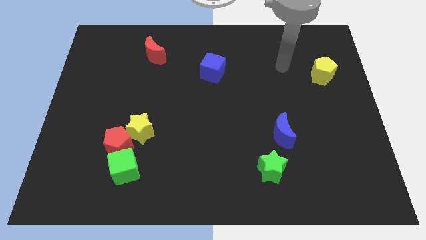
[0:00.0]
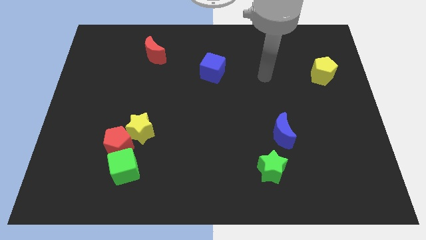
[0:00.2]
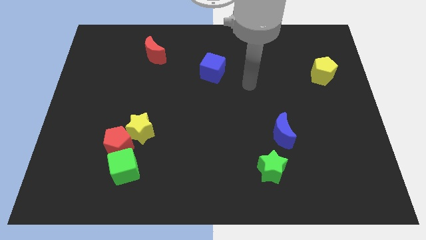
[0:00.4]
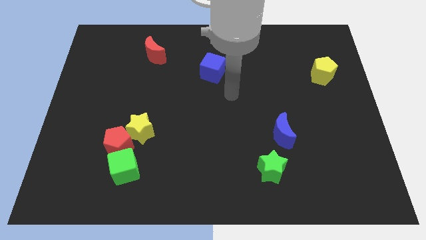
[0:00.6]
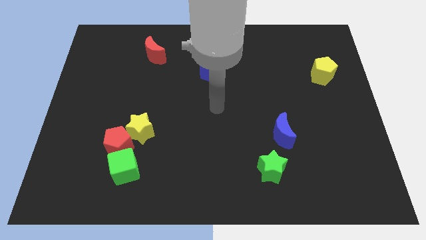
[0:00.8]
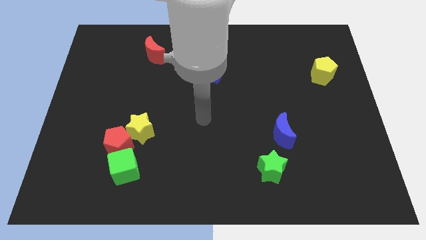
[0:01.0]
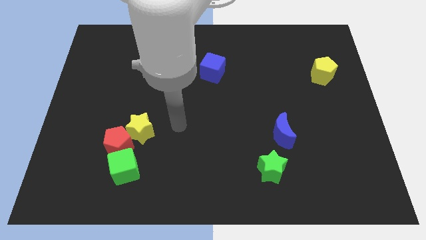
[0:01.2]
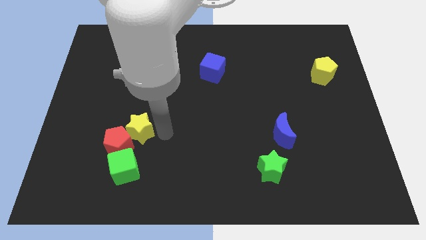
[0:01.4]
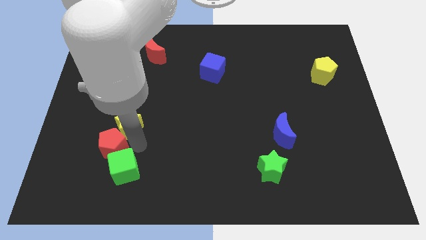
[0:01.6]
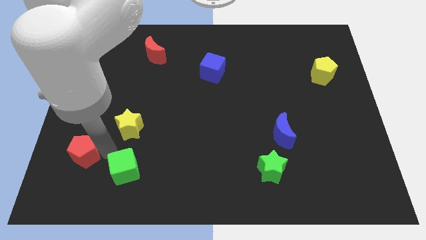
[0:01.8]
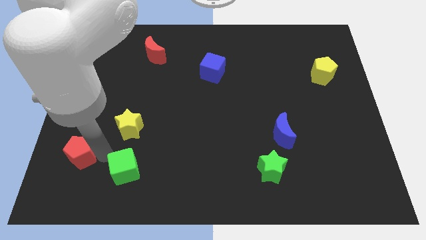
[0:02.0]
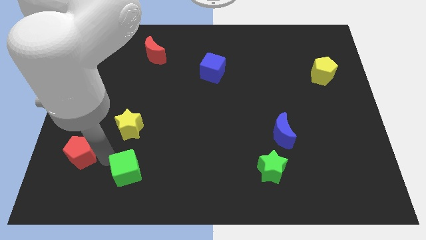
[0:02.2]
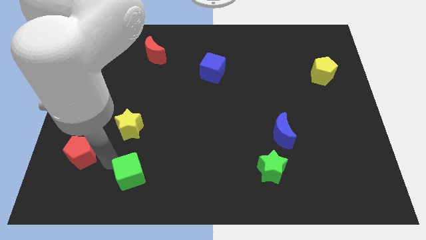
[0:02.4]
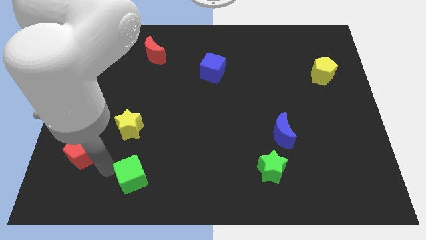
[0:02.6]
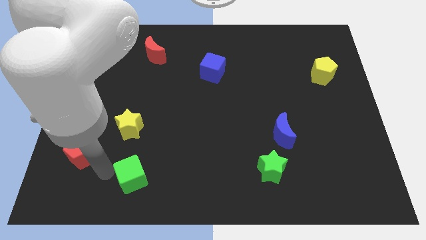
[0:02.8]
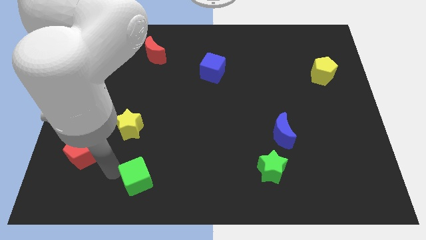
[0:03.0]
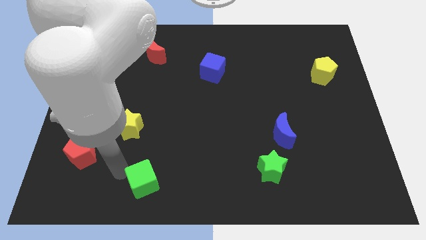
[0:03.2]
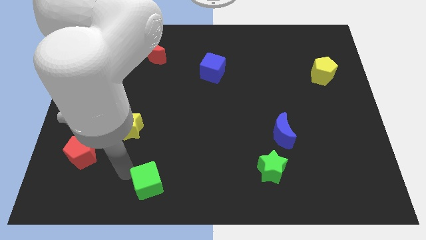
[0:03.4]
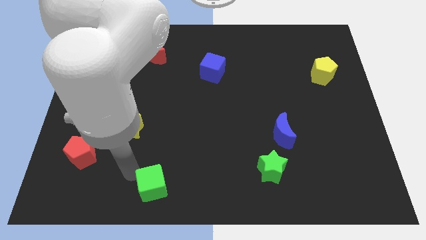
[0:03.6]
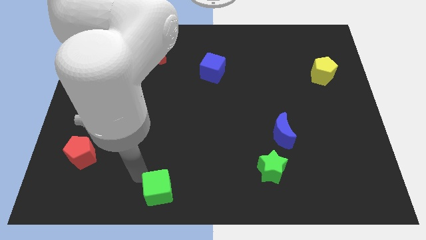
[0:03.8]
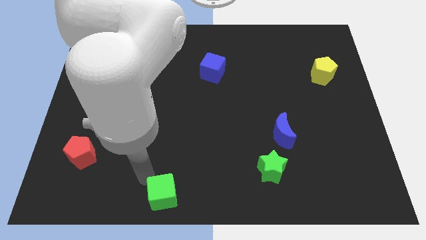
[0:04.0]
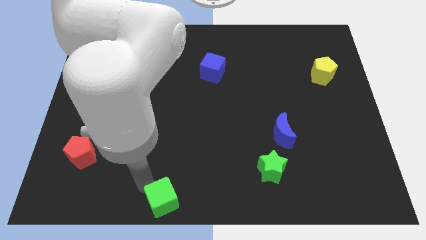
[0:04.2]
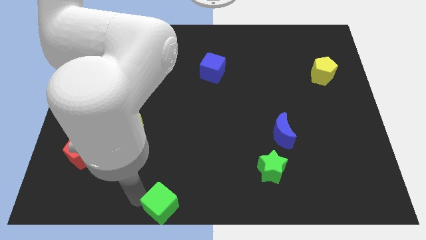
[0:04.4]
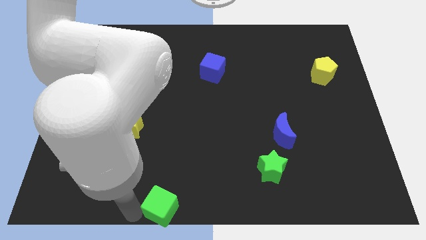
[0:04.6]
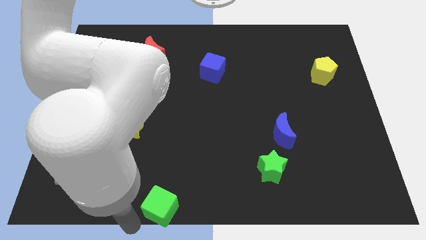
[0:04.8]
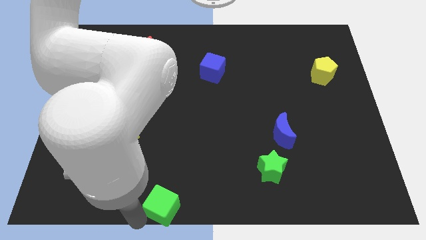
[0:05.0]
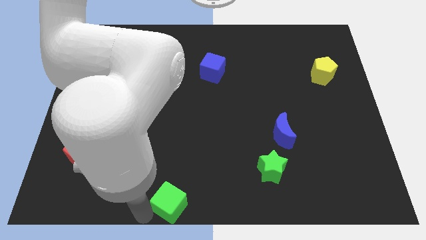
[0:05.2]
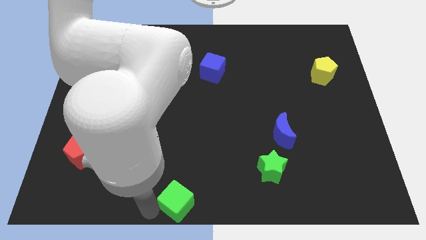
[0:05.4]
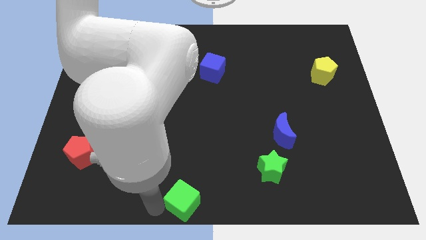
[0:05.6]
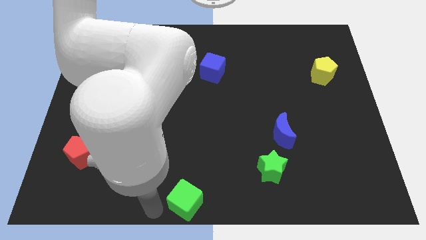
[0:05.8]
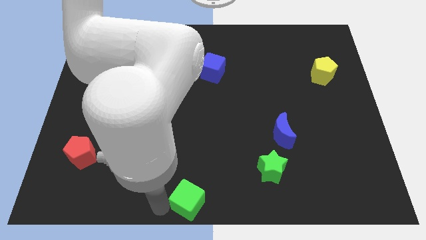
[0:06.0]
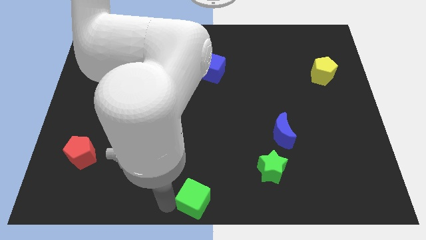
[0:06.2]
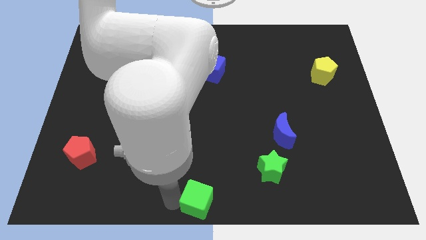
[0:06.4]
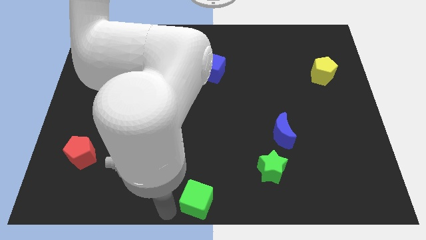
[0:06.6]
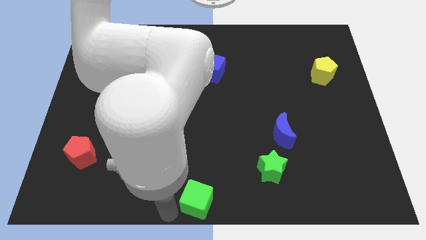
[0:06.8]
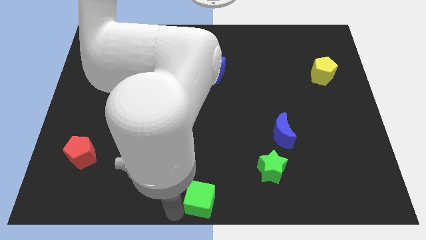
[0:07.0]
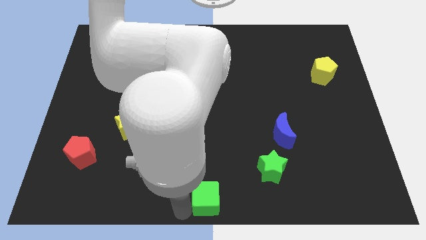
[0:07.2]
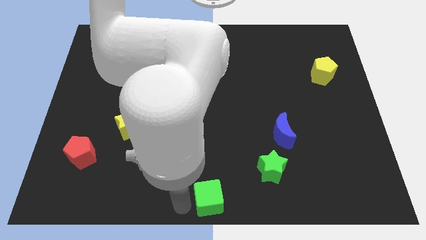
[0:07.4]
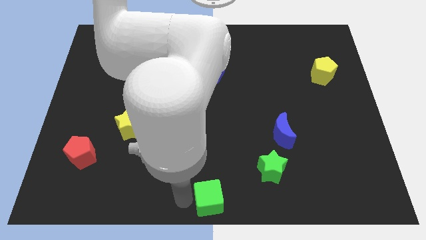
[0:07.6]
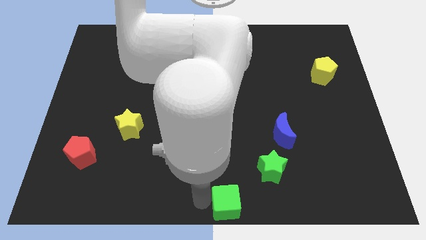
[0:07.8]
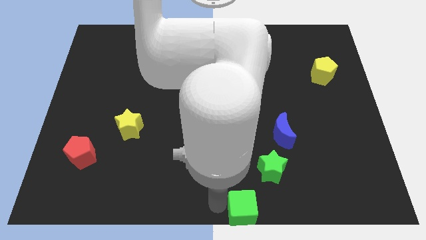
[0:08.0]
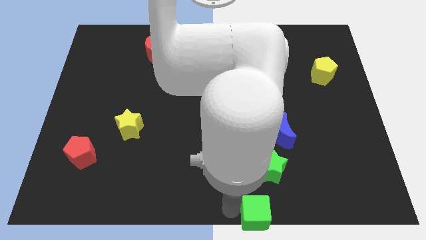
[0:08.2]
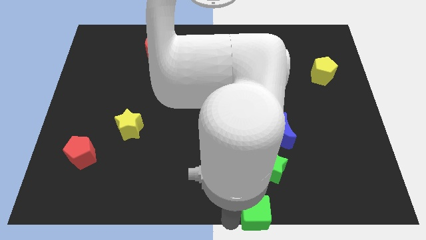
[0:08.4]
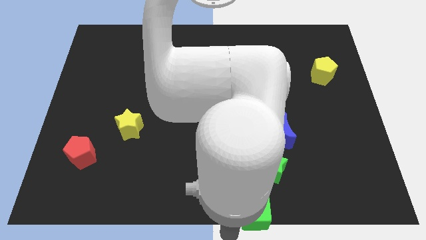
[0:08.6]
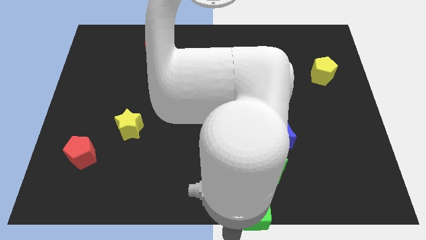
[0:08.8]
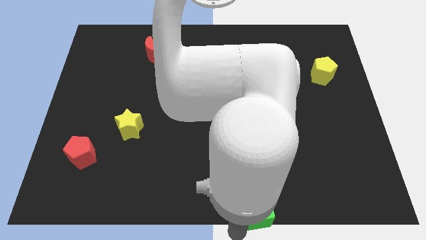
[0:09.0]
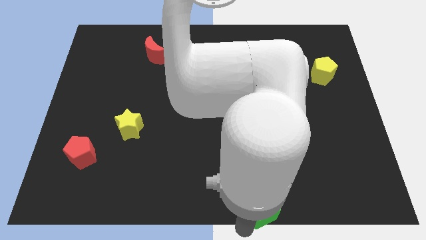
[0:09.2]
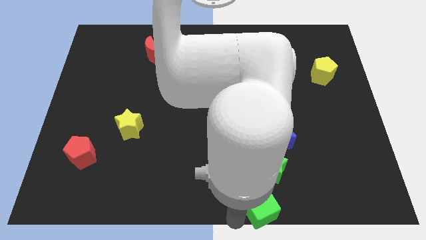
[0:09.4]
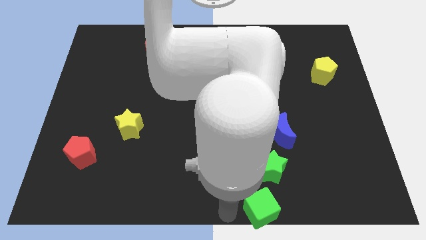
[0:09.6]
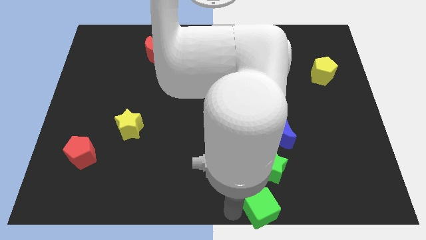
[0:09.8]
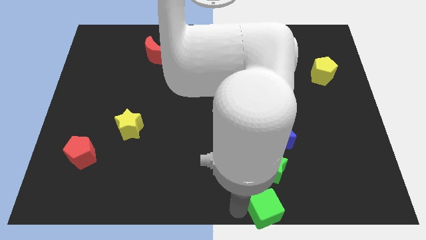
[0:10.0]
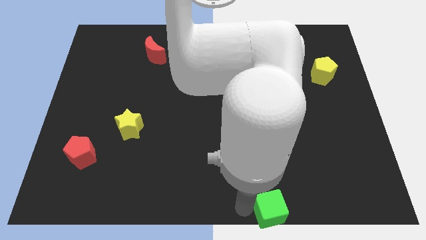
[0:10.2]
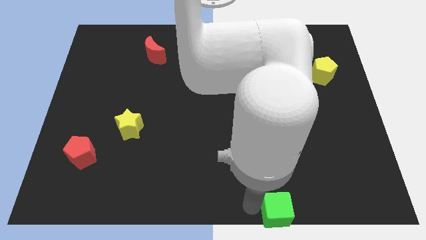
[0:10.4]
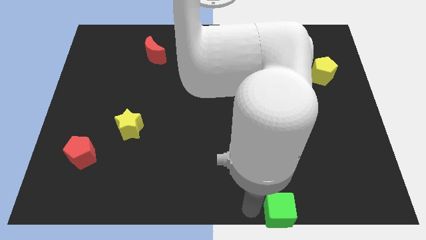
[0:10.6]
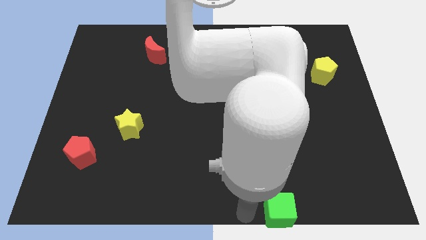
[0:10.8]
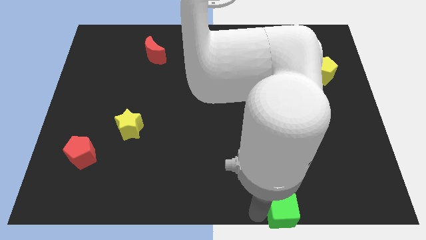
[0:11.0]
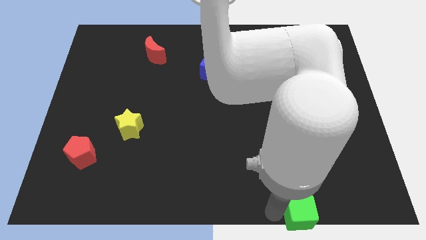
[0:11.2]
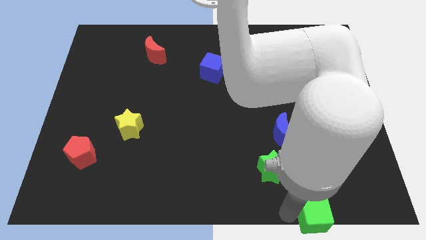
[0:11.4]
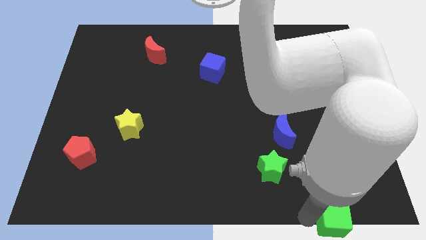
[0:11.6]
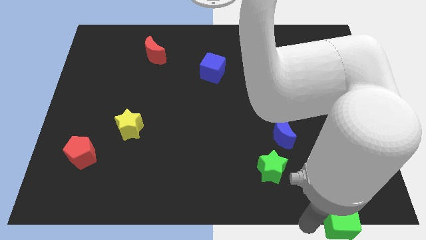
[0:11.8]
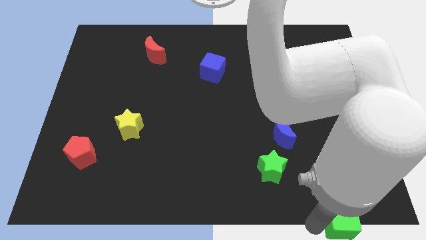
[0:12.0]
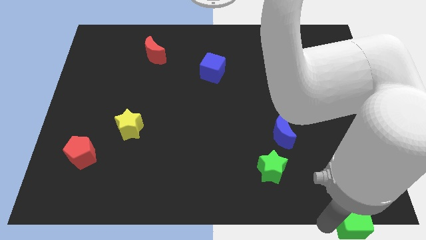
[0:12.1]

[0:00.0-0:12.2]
slide the green cube to the lower right corner

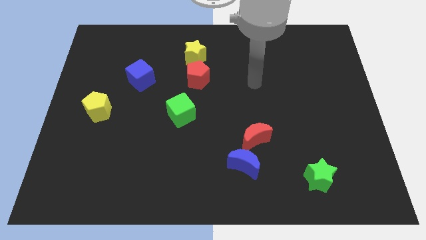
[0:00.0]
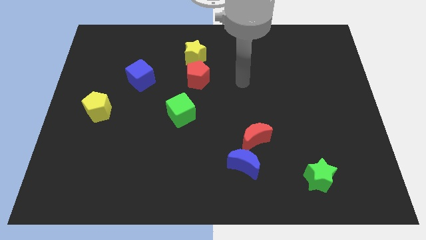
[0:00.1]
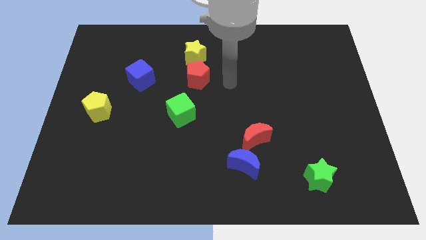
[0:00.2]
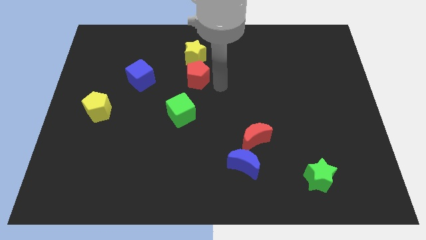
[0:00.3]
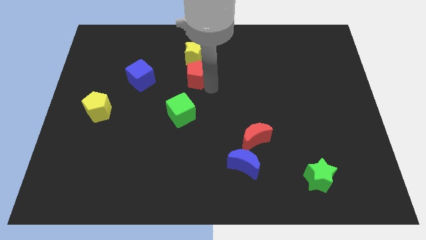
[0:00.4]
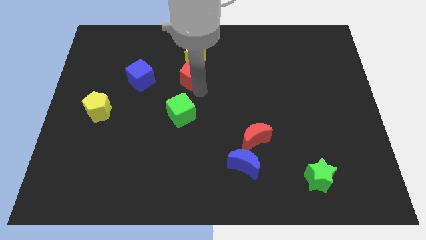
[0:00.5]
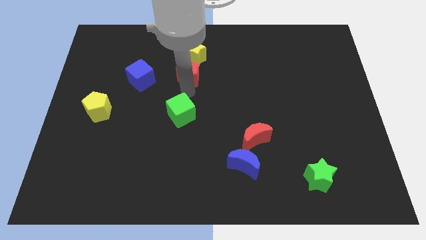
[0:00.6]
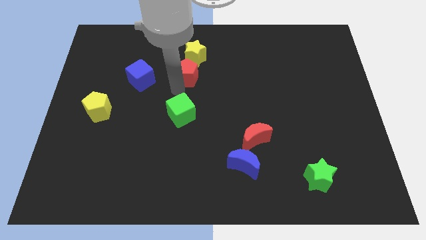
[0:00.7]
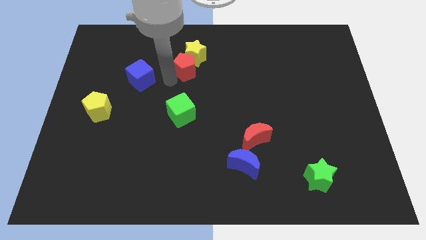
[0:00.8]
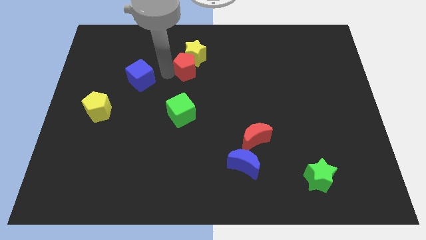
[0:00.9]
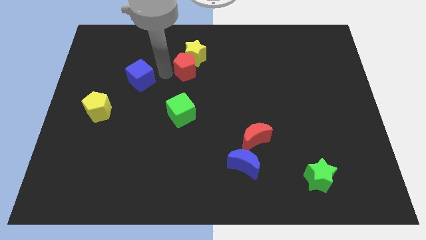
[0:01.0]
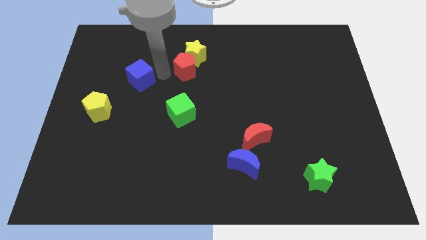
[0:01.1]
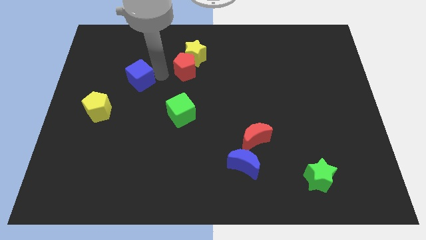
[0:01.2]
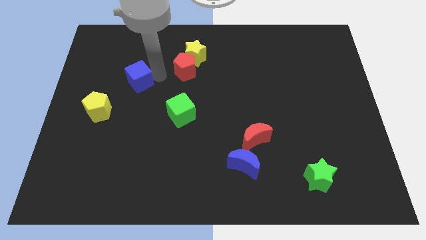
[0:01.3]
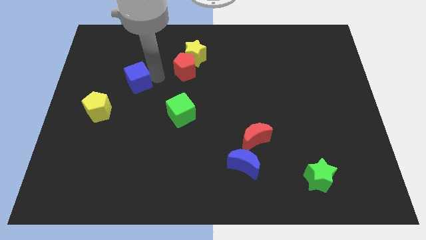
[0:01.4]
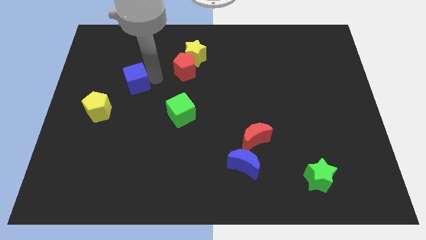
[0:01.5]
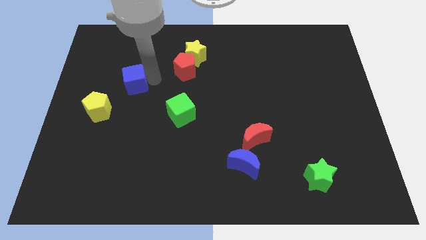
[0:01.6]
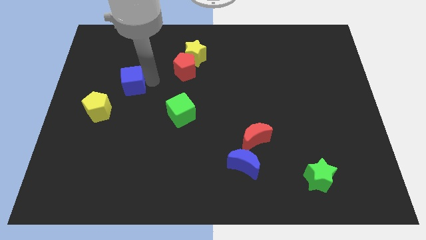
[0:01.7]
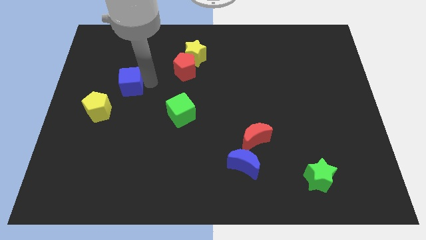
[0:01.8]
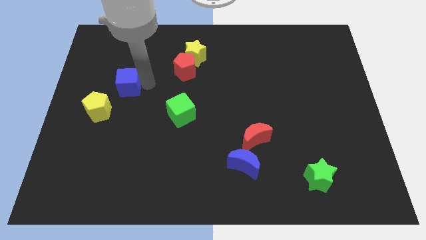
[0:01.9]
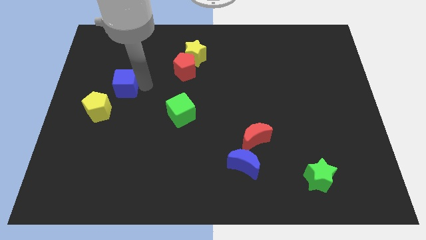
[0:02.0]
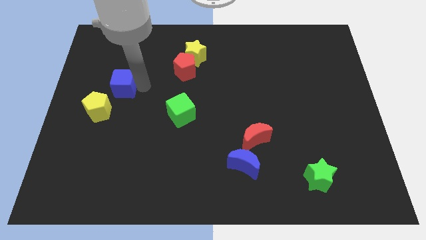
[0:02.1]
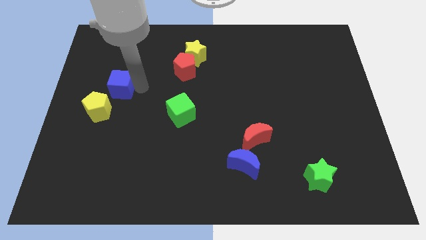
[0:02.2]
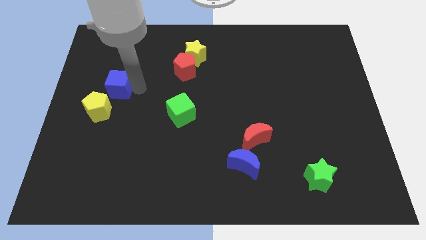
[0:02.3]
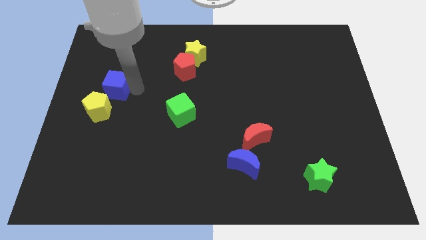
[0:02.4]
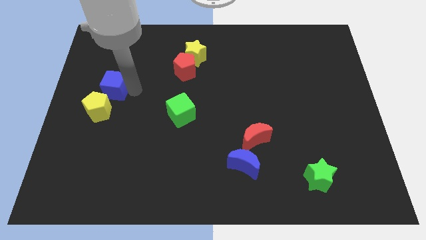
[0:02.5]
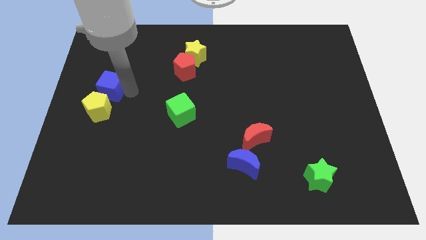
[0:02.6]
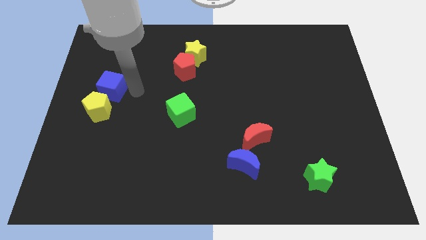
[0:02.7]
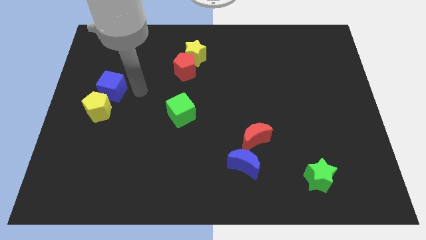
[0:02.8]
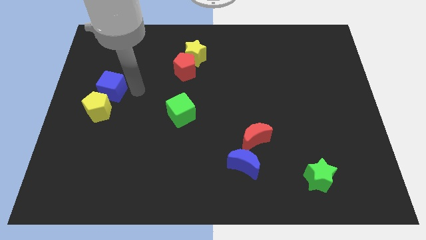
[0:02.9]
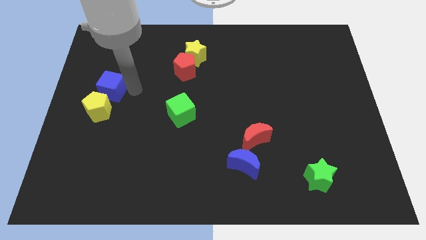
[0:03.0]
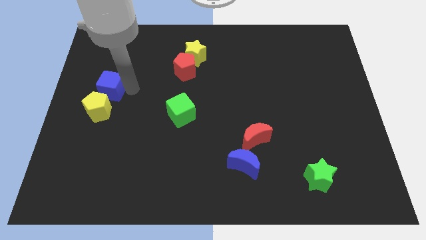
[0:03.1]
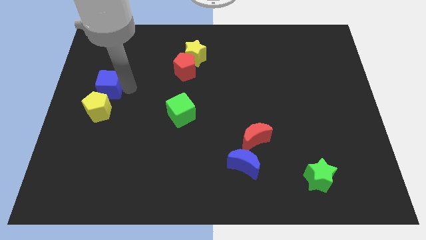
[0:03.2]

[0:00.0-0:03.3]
put the blue cube to the center left
